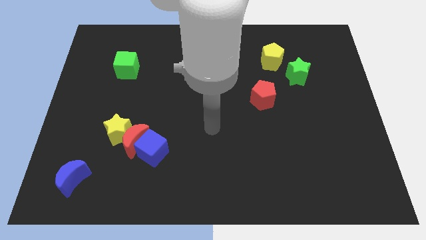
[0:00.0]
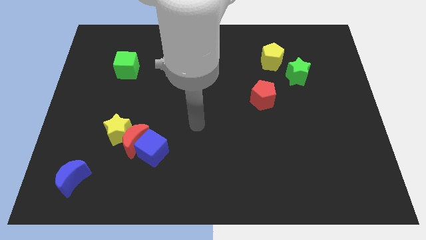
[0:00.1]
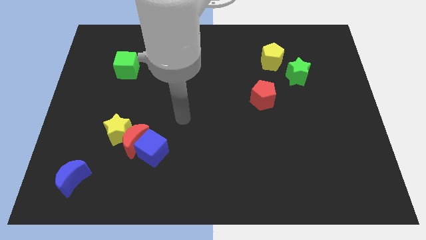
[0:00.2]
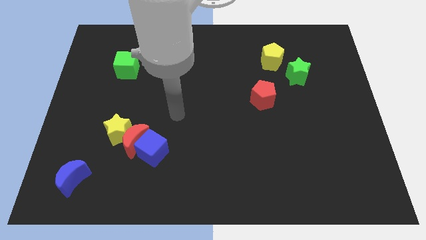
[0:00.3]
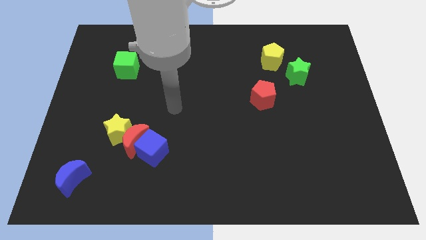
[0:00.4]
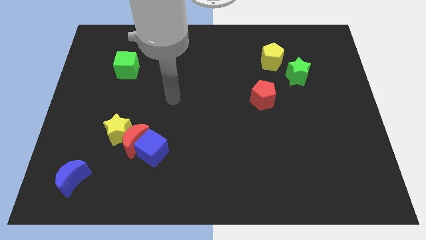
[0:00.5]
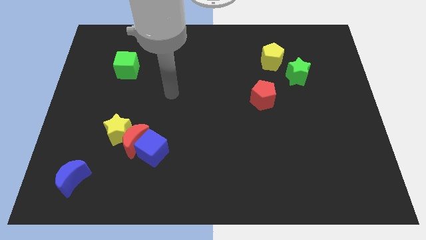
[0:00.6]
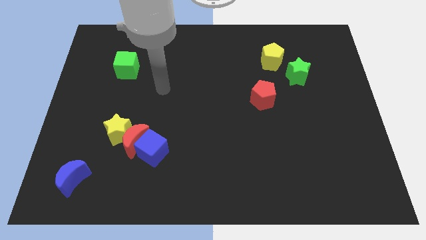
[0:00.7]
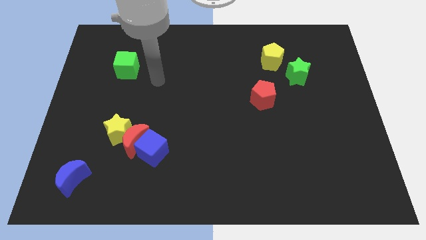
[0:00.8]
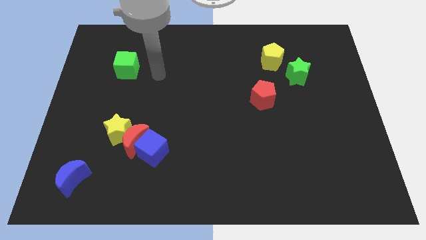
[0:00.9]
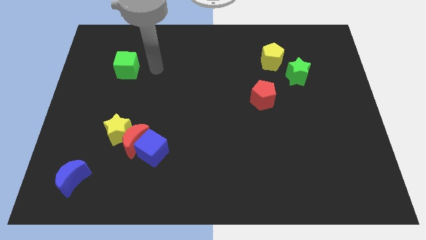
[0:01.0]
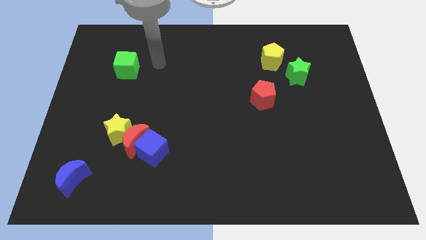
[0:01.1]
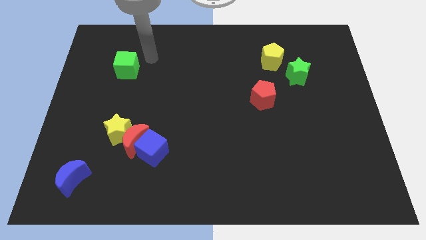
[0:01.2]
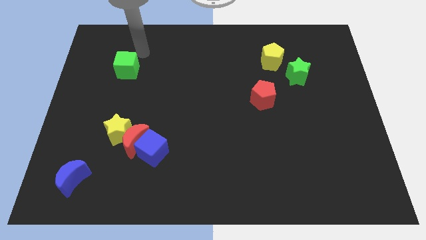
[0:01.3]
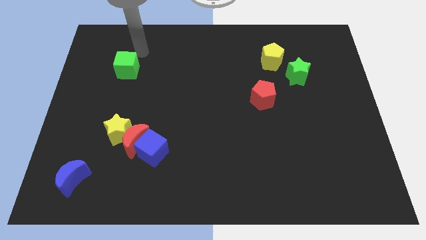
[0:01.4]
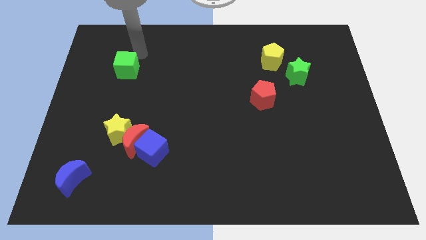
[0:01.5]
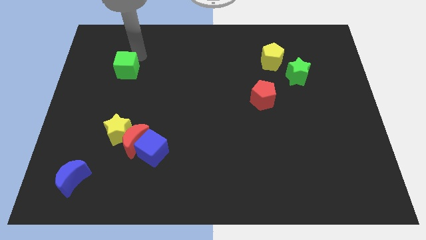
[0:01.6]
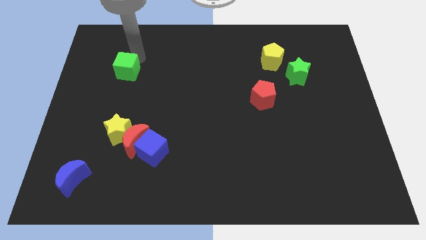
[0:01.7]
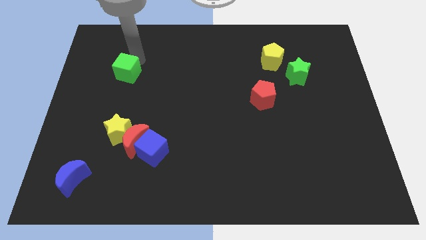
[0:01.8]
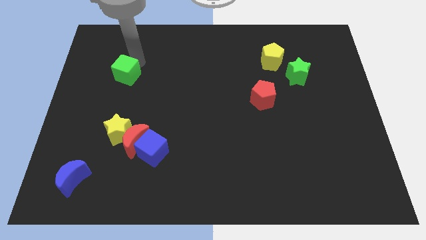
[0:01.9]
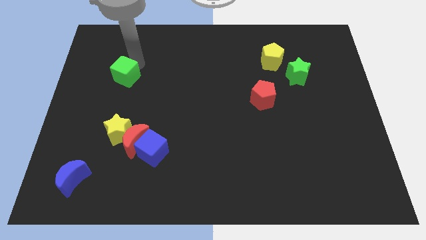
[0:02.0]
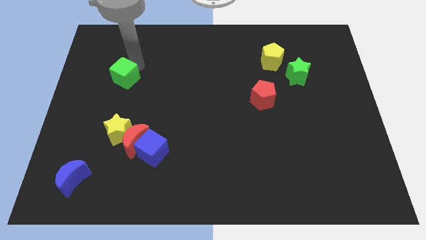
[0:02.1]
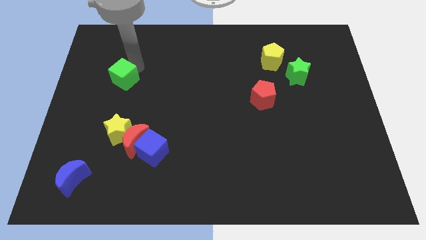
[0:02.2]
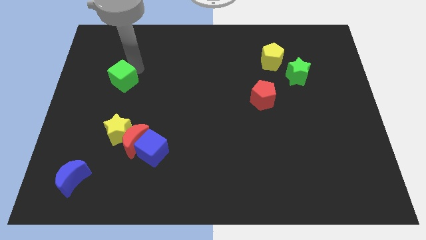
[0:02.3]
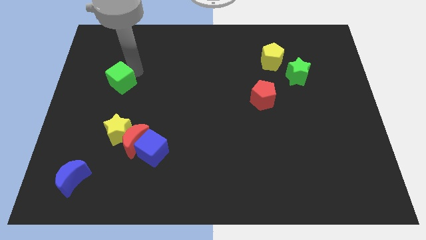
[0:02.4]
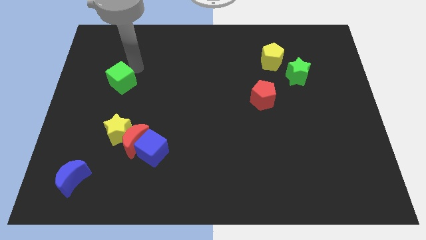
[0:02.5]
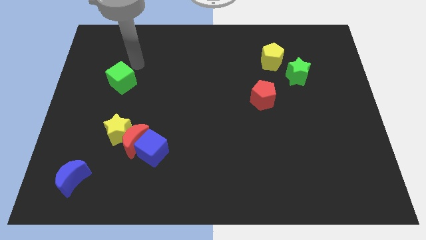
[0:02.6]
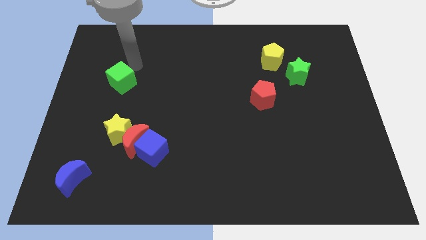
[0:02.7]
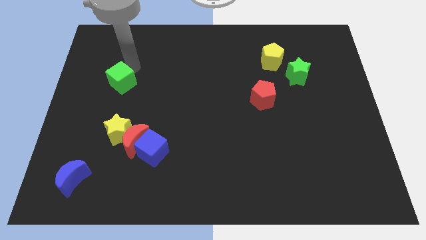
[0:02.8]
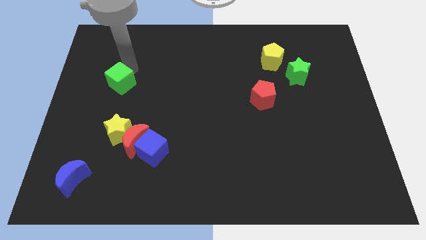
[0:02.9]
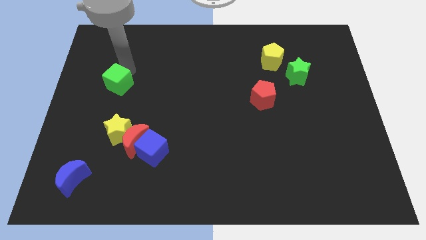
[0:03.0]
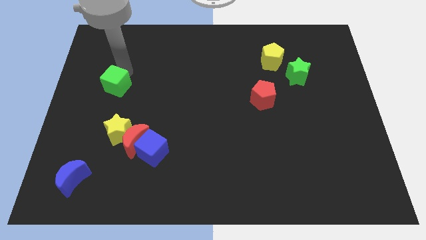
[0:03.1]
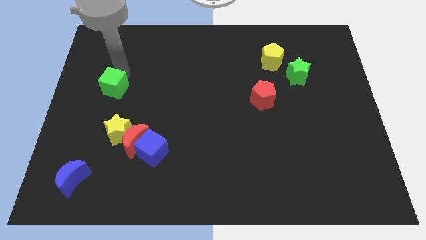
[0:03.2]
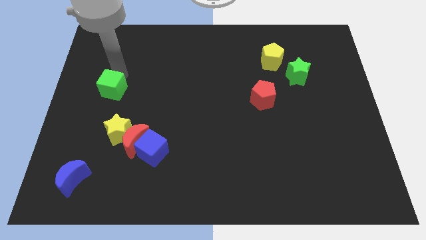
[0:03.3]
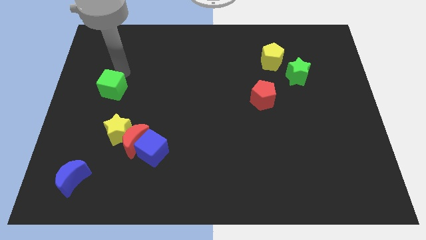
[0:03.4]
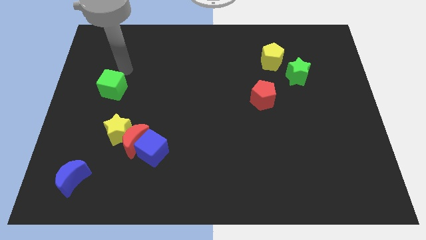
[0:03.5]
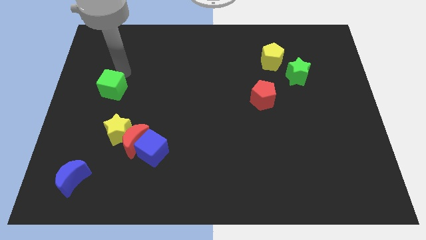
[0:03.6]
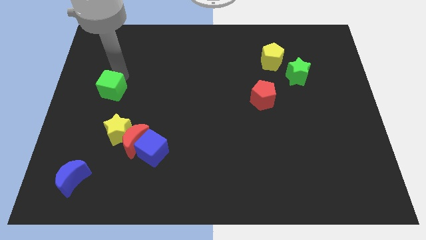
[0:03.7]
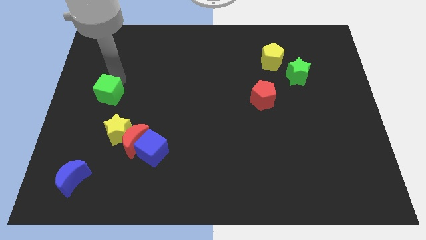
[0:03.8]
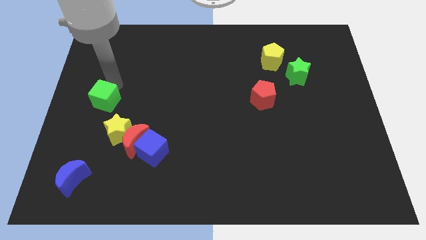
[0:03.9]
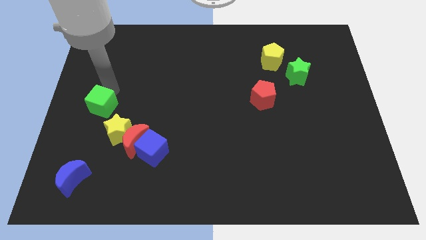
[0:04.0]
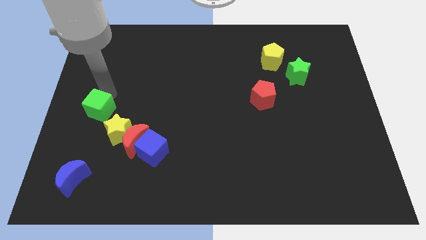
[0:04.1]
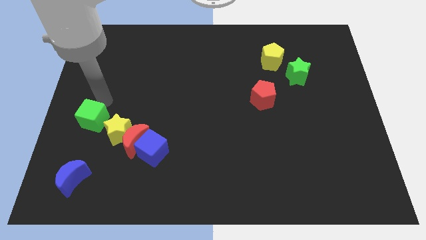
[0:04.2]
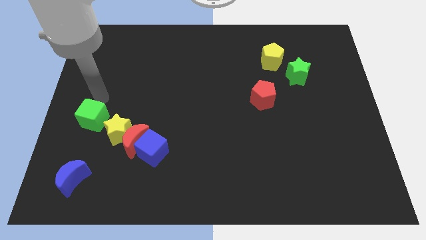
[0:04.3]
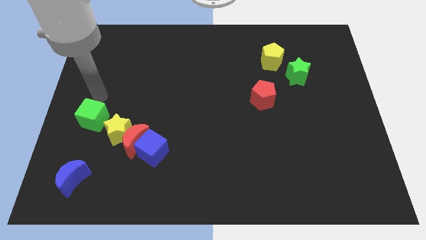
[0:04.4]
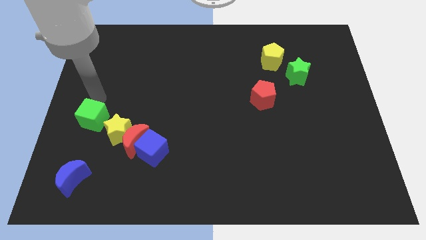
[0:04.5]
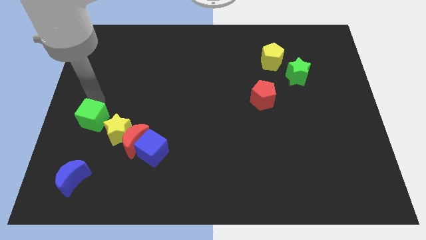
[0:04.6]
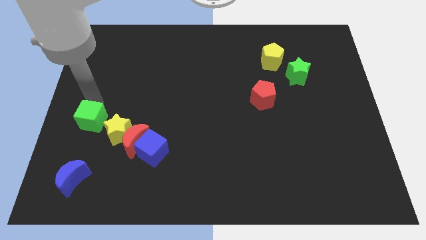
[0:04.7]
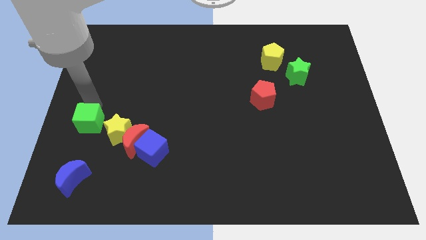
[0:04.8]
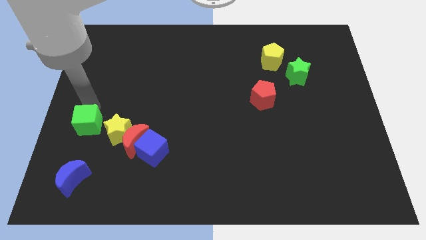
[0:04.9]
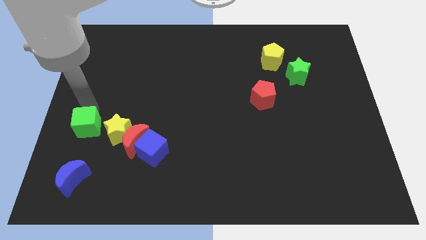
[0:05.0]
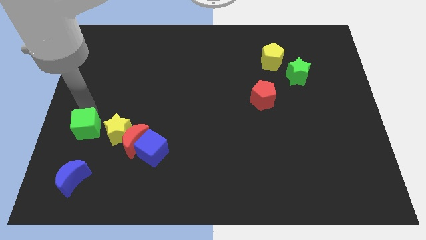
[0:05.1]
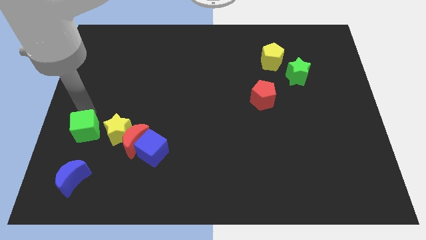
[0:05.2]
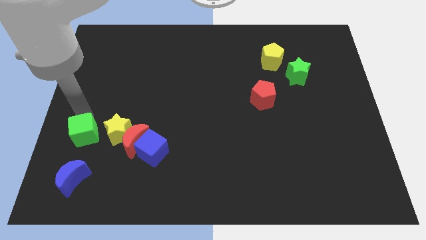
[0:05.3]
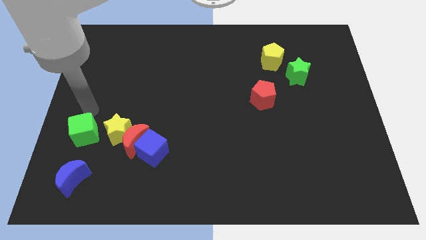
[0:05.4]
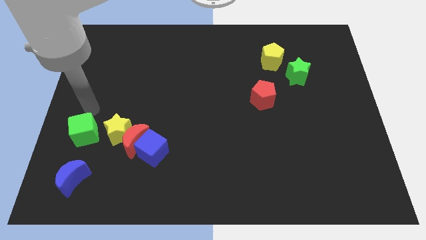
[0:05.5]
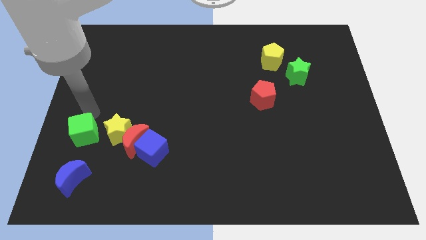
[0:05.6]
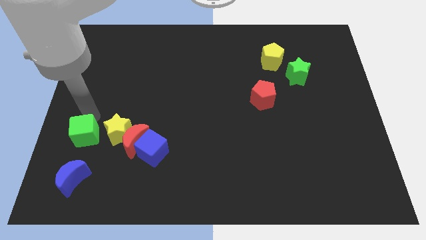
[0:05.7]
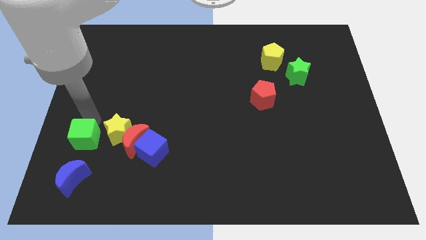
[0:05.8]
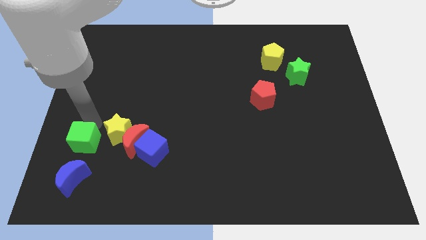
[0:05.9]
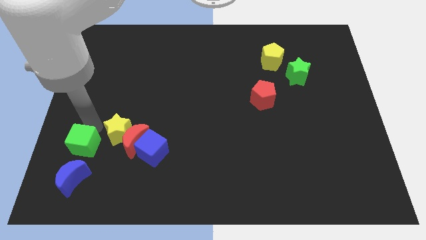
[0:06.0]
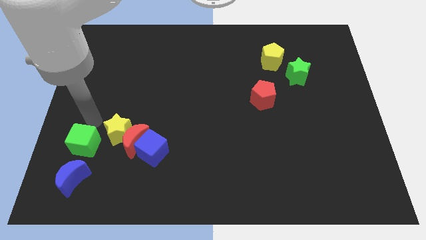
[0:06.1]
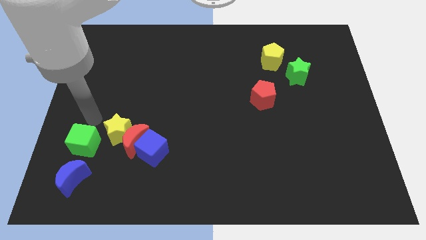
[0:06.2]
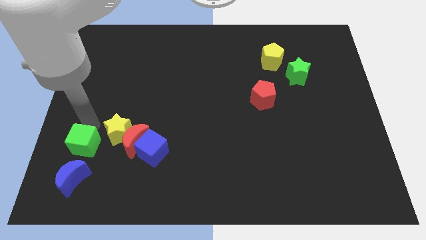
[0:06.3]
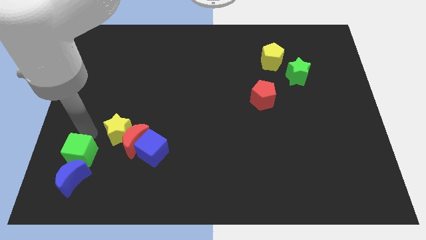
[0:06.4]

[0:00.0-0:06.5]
move the green cube close to the blue moon

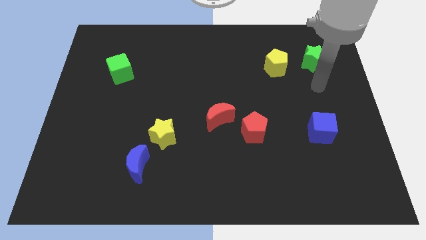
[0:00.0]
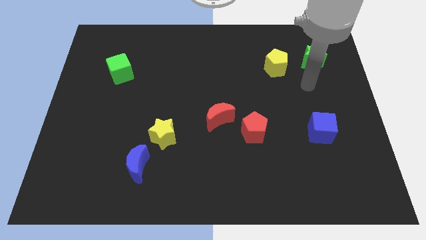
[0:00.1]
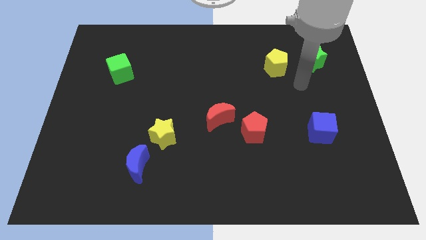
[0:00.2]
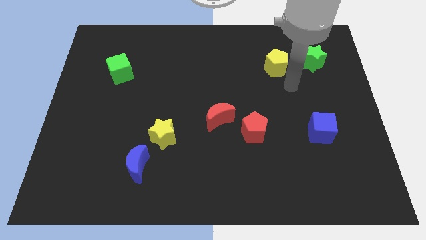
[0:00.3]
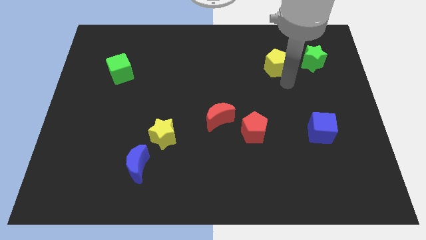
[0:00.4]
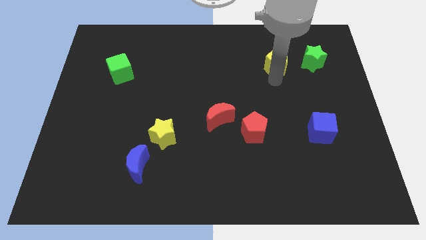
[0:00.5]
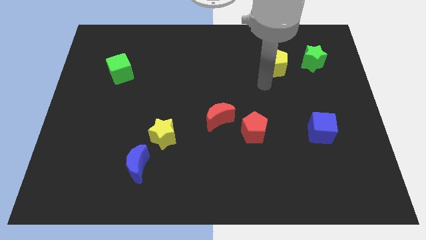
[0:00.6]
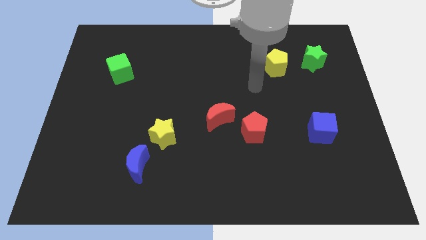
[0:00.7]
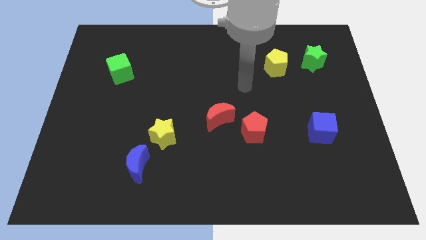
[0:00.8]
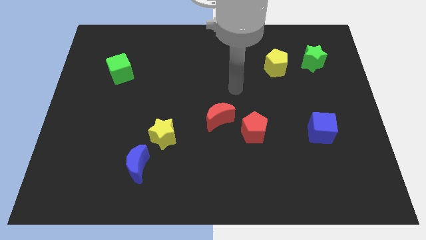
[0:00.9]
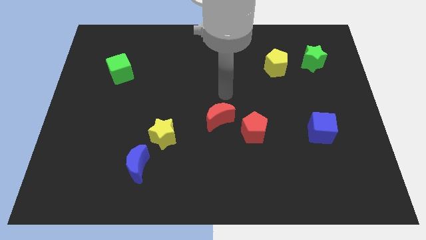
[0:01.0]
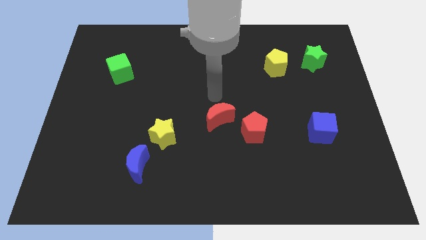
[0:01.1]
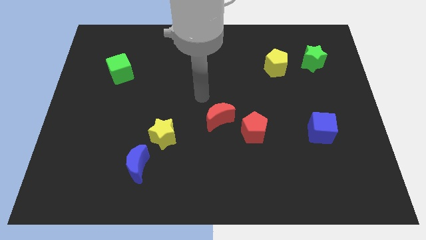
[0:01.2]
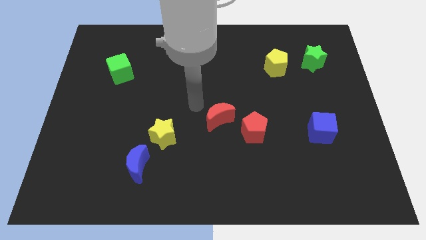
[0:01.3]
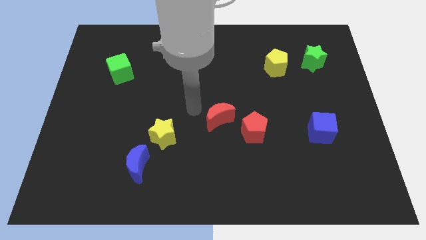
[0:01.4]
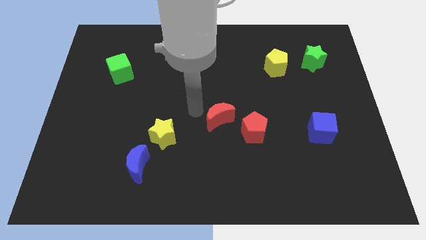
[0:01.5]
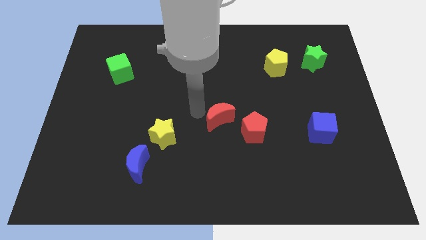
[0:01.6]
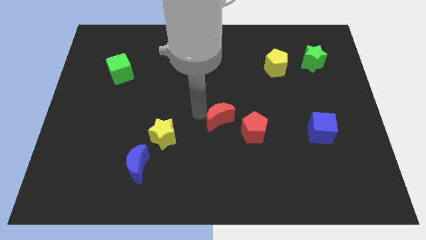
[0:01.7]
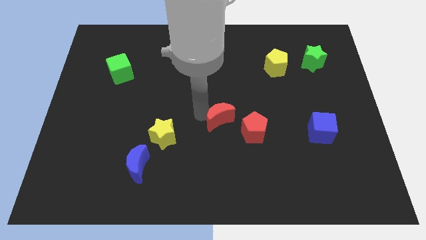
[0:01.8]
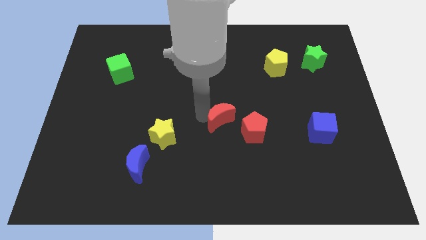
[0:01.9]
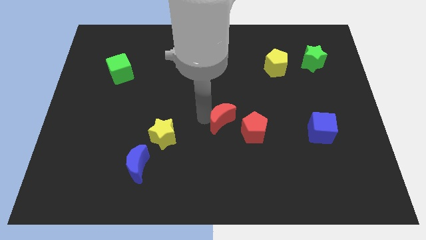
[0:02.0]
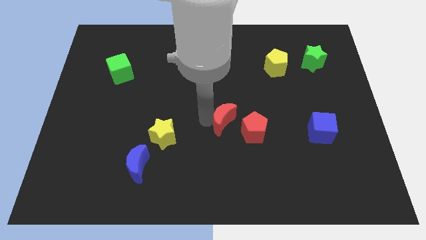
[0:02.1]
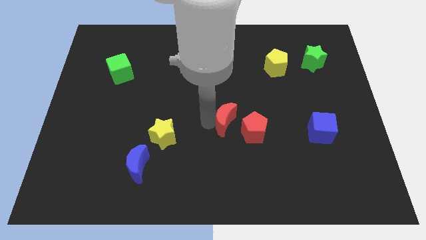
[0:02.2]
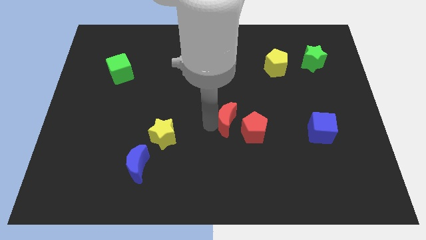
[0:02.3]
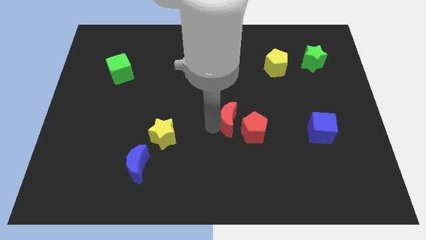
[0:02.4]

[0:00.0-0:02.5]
slide the red moon towards the red pentagon
